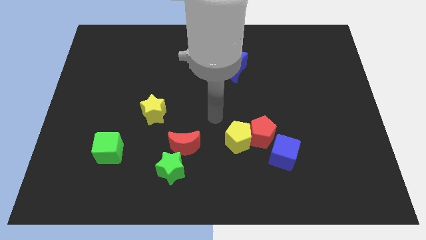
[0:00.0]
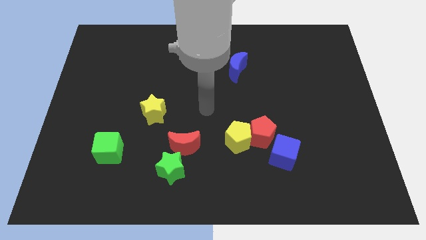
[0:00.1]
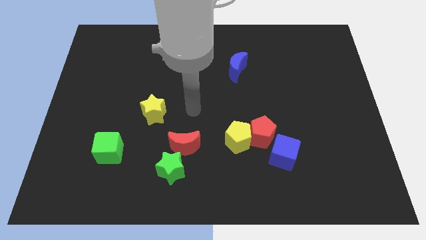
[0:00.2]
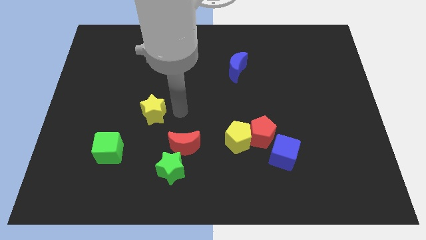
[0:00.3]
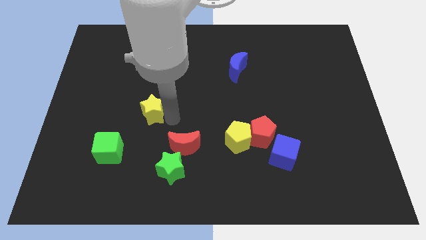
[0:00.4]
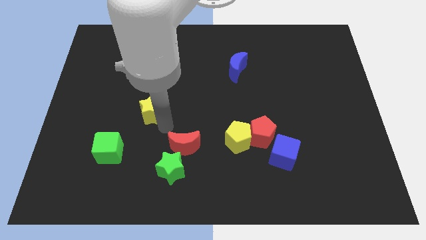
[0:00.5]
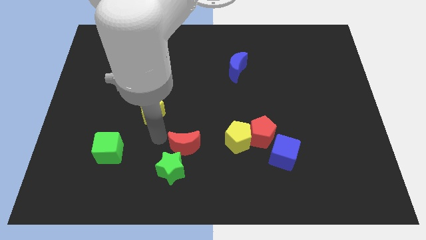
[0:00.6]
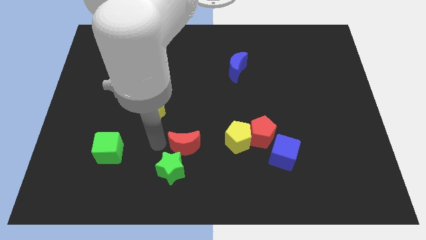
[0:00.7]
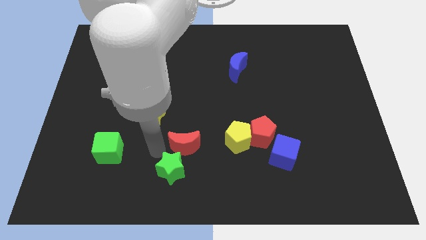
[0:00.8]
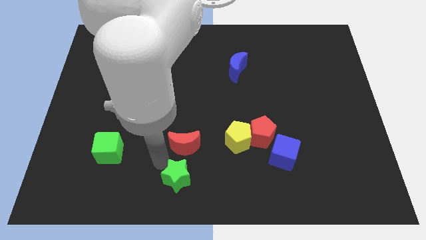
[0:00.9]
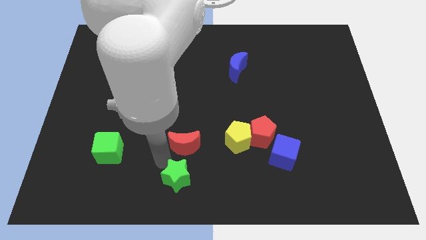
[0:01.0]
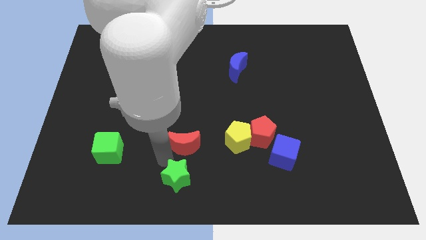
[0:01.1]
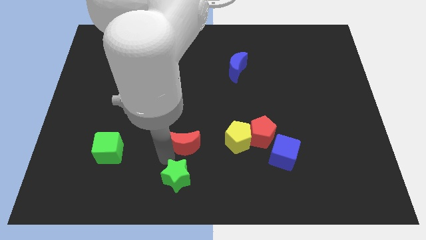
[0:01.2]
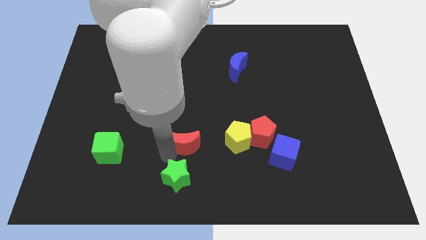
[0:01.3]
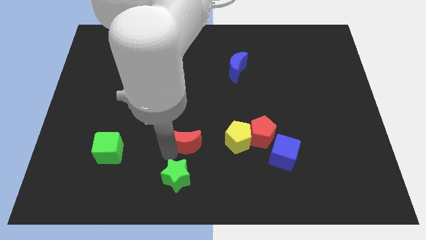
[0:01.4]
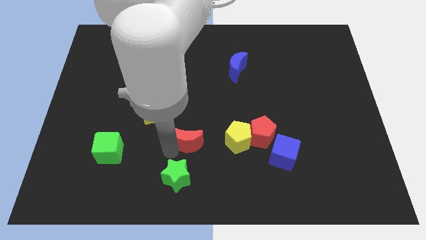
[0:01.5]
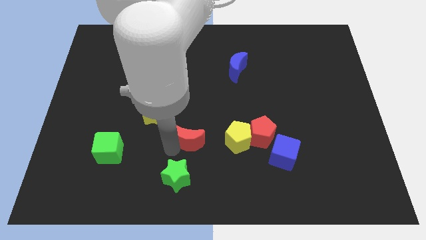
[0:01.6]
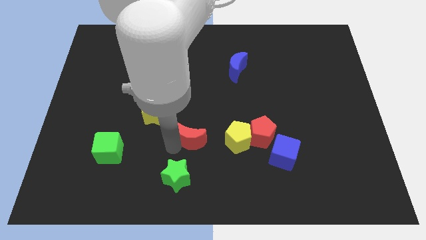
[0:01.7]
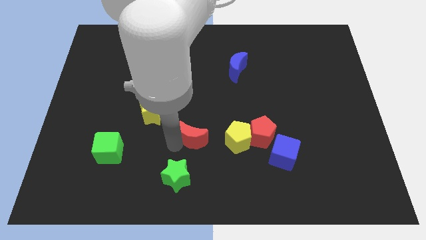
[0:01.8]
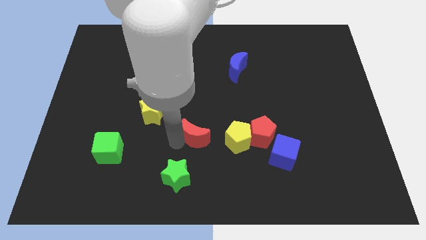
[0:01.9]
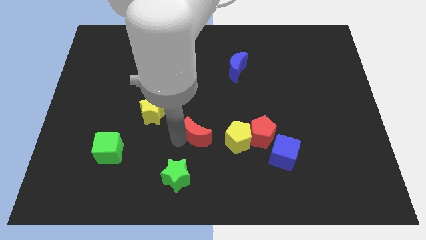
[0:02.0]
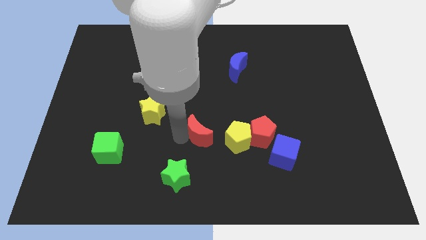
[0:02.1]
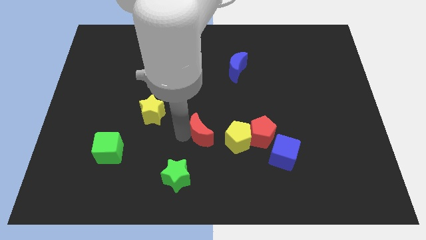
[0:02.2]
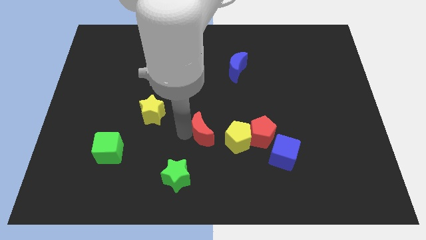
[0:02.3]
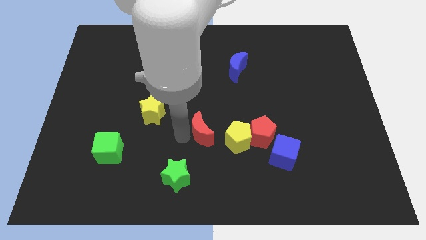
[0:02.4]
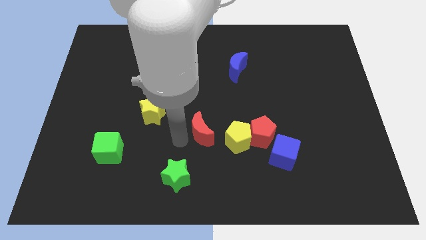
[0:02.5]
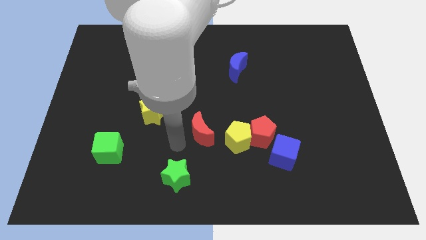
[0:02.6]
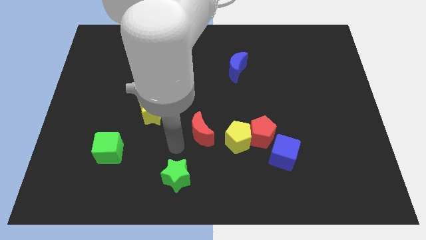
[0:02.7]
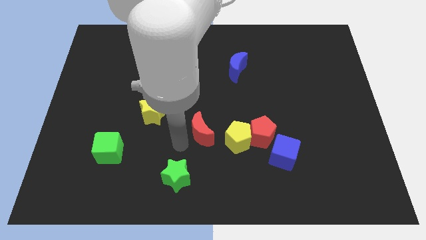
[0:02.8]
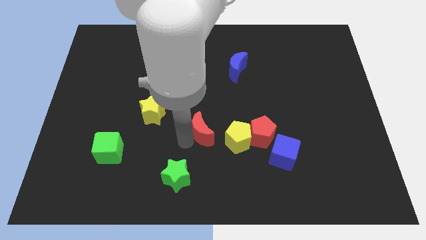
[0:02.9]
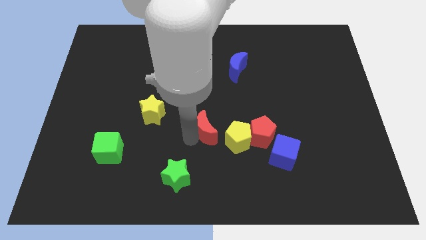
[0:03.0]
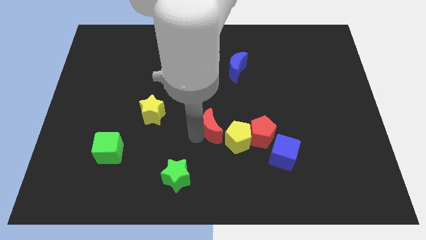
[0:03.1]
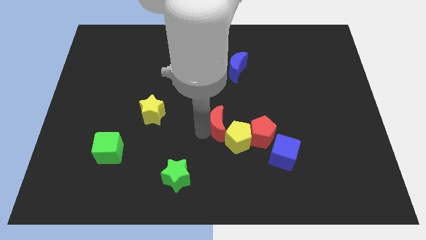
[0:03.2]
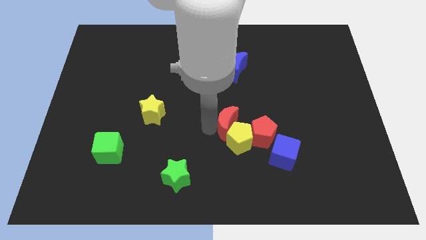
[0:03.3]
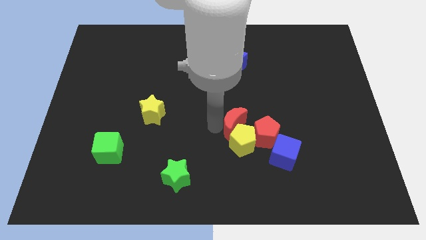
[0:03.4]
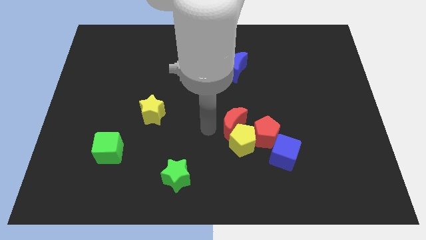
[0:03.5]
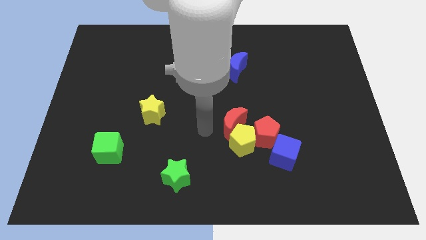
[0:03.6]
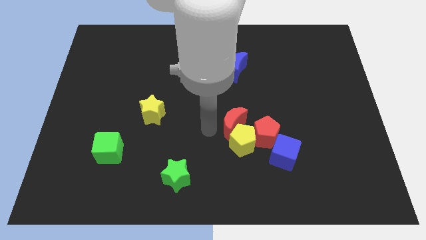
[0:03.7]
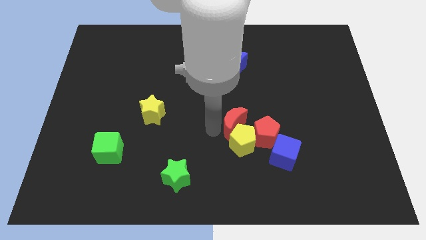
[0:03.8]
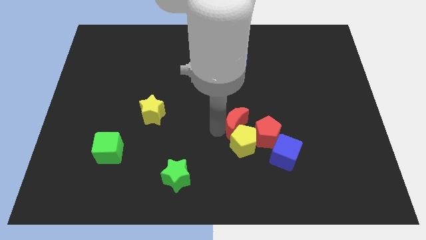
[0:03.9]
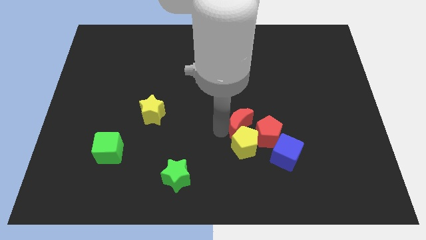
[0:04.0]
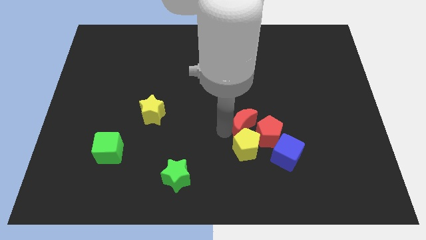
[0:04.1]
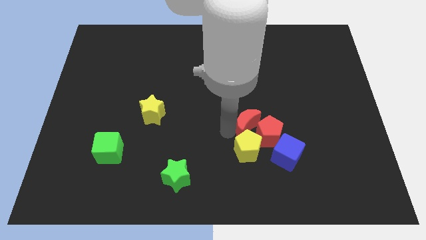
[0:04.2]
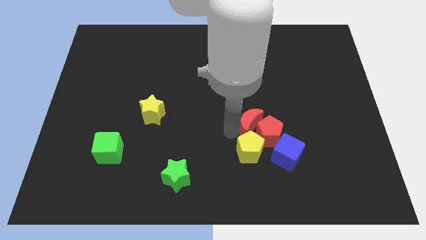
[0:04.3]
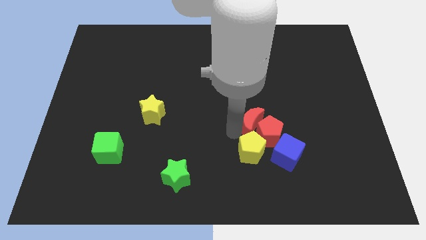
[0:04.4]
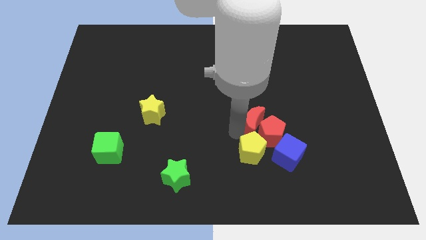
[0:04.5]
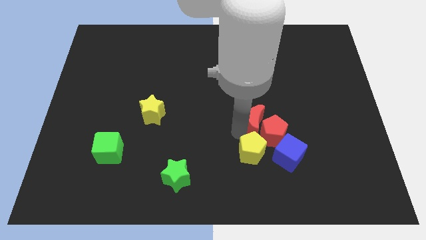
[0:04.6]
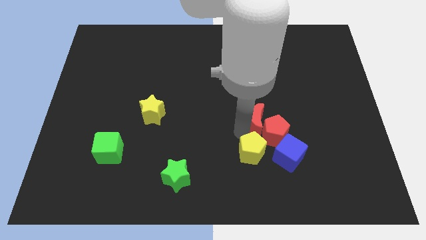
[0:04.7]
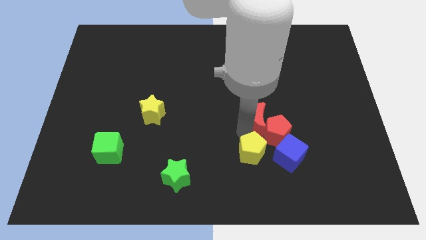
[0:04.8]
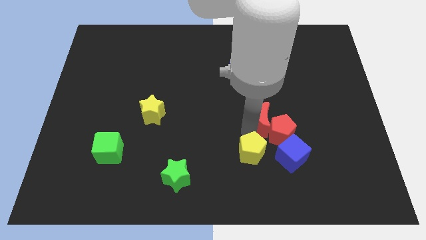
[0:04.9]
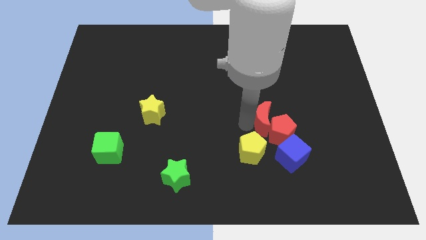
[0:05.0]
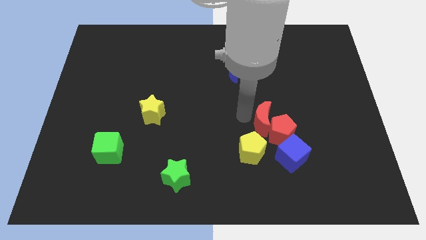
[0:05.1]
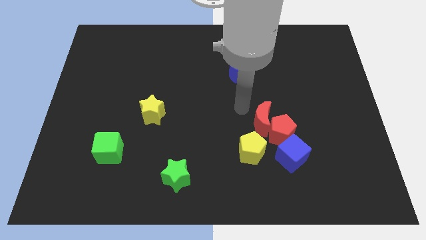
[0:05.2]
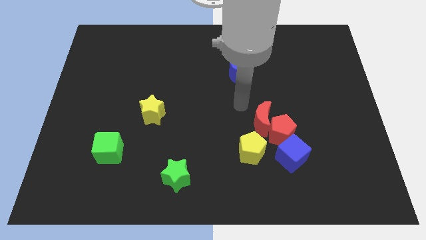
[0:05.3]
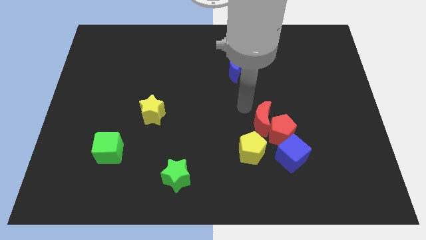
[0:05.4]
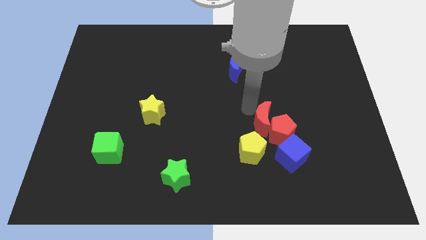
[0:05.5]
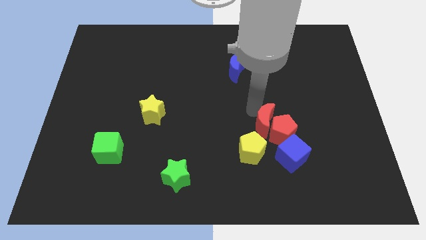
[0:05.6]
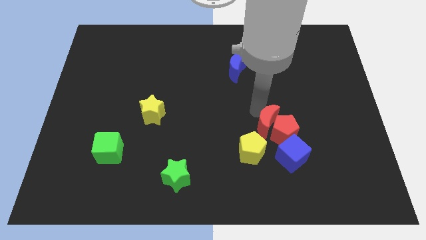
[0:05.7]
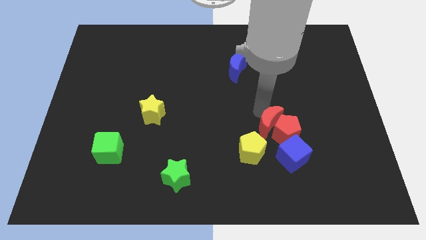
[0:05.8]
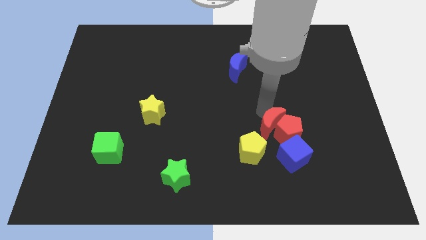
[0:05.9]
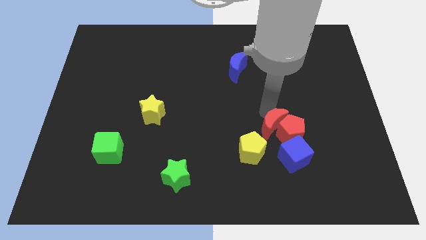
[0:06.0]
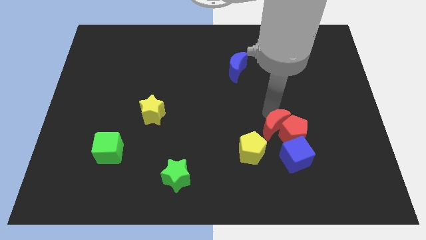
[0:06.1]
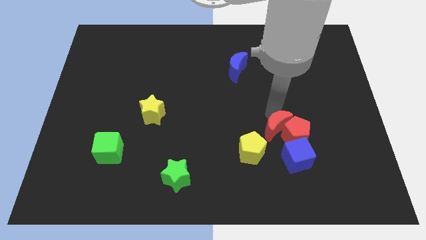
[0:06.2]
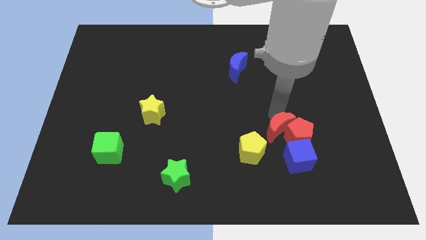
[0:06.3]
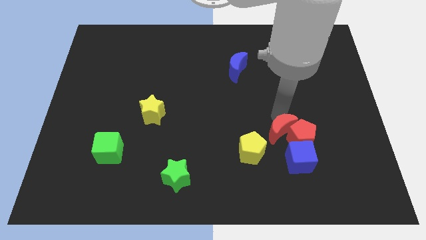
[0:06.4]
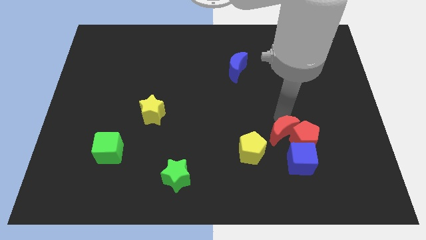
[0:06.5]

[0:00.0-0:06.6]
move the red moon right of the yellow pentagon

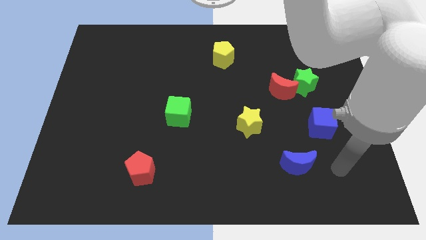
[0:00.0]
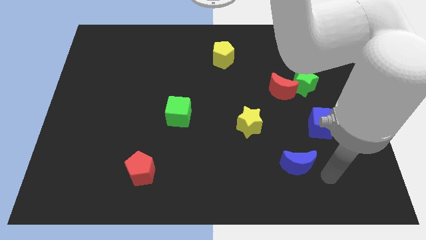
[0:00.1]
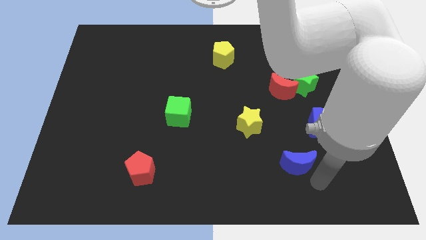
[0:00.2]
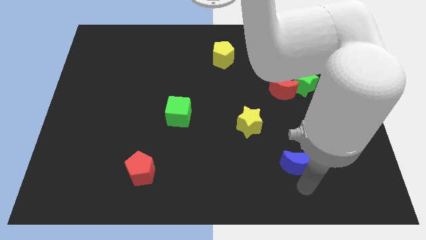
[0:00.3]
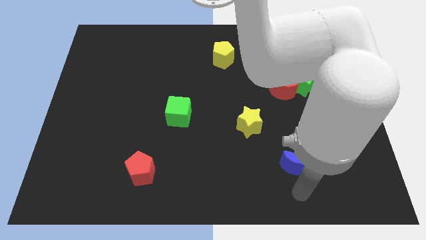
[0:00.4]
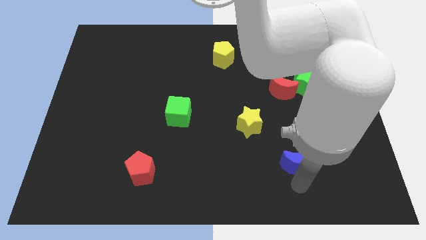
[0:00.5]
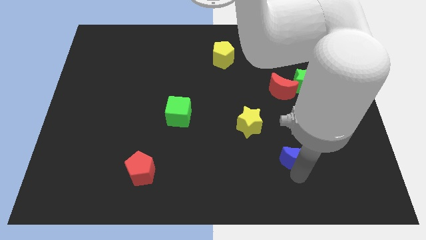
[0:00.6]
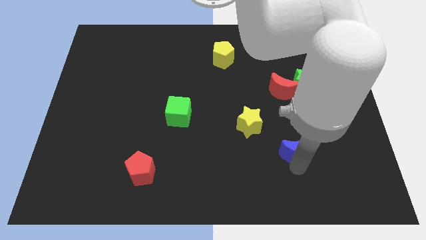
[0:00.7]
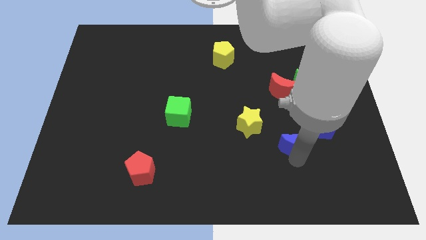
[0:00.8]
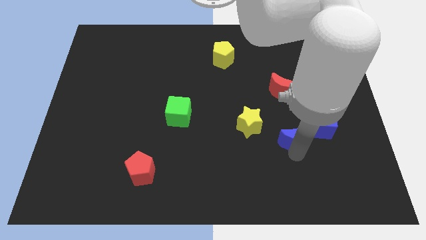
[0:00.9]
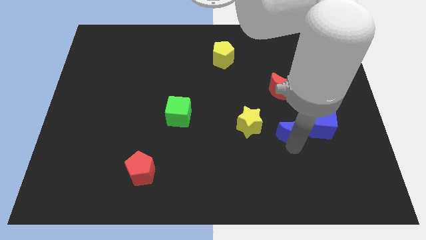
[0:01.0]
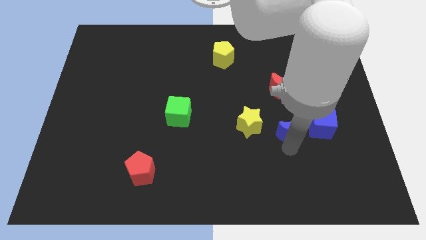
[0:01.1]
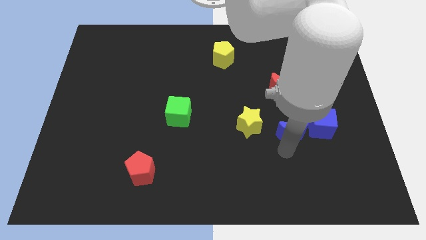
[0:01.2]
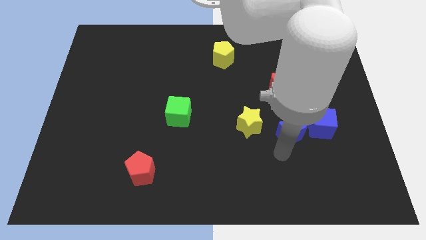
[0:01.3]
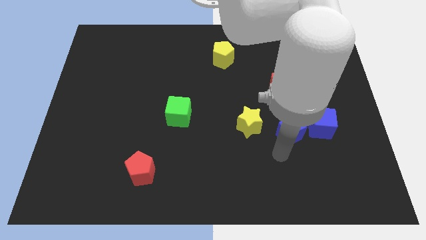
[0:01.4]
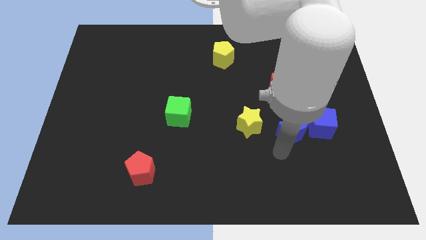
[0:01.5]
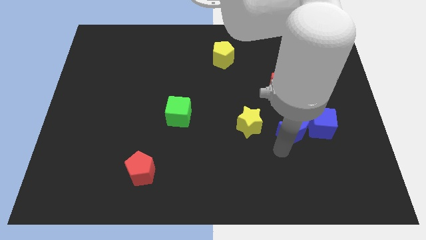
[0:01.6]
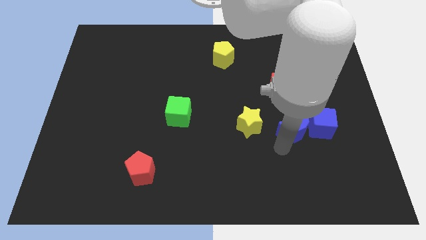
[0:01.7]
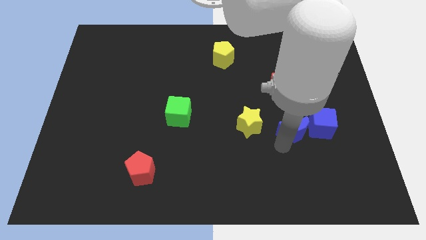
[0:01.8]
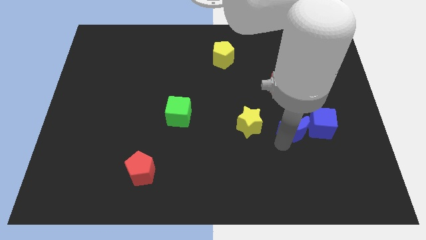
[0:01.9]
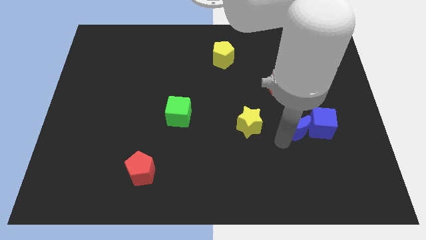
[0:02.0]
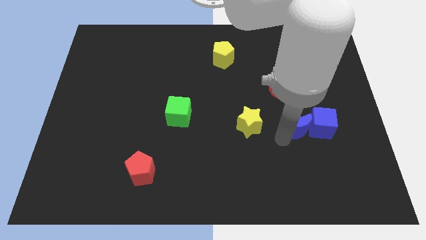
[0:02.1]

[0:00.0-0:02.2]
move the blue moon to the top left side of the blue cube
